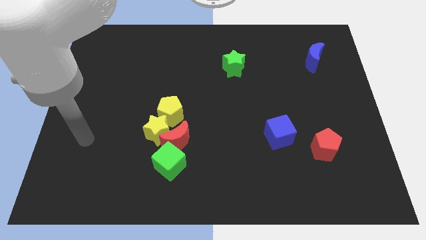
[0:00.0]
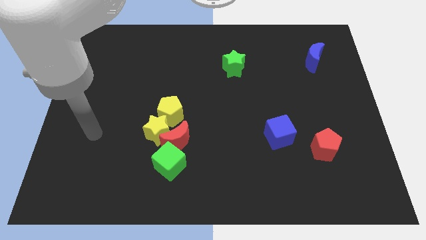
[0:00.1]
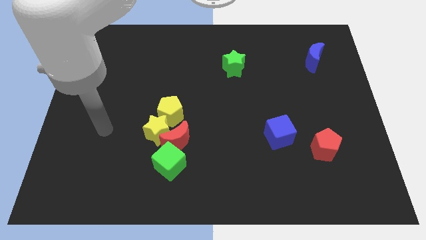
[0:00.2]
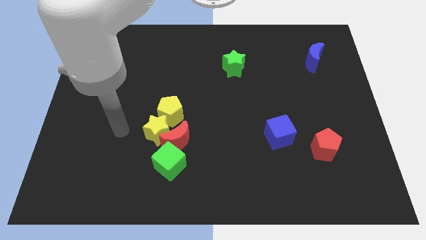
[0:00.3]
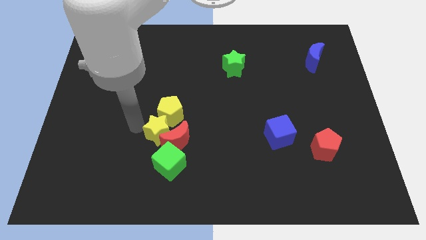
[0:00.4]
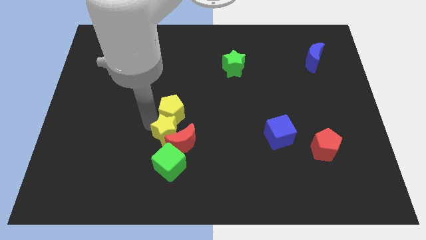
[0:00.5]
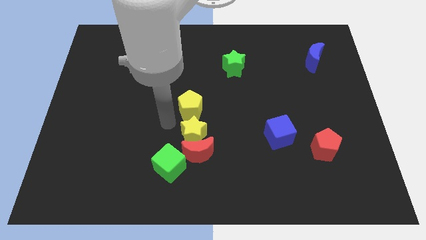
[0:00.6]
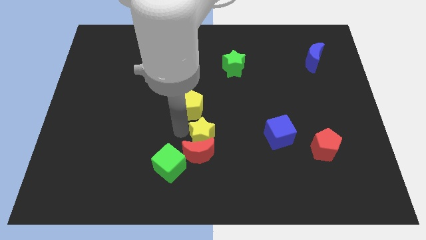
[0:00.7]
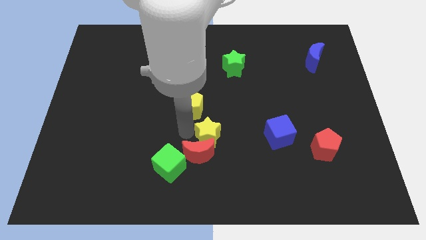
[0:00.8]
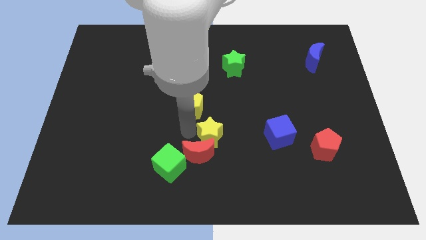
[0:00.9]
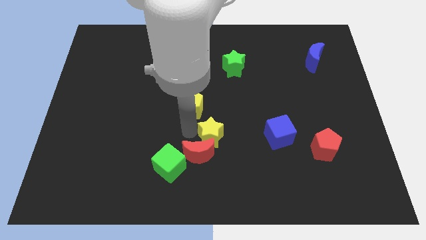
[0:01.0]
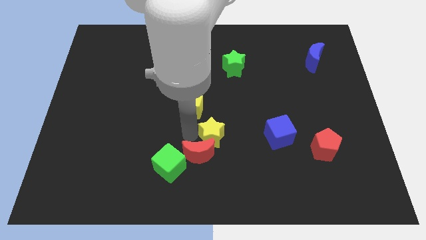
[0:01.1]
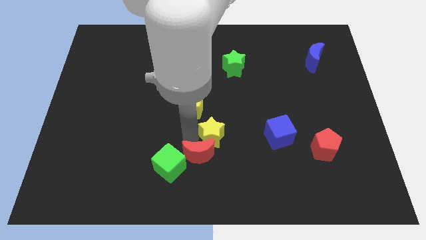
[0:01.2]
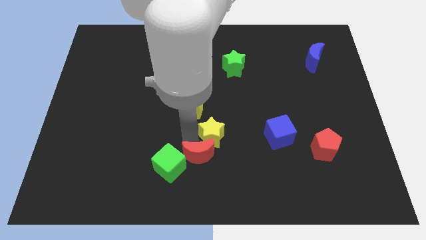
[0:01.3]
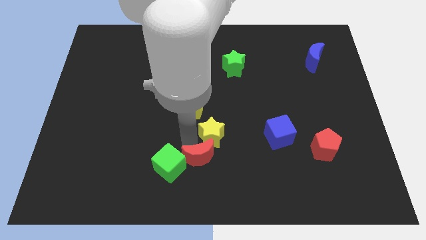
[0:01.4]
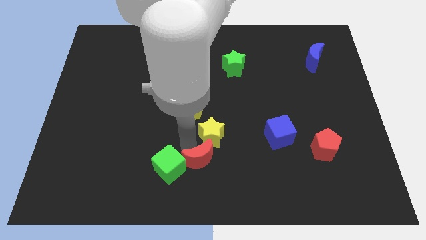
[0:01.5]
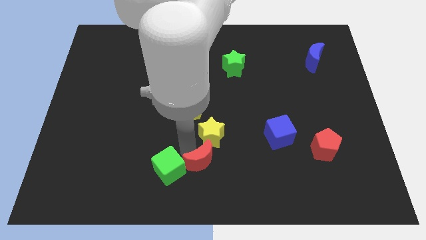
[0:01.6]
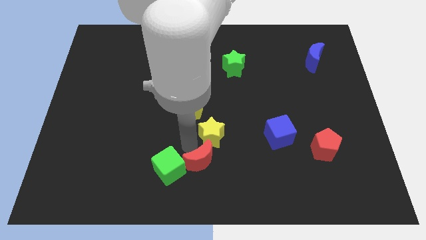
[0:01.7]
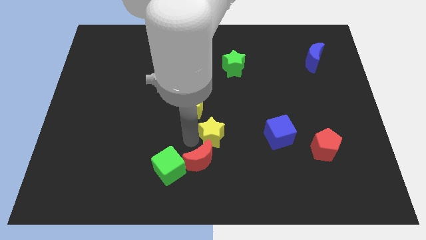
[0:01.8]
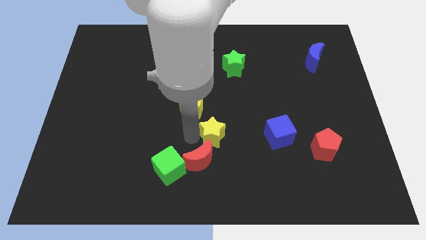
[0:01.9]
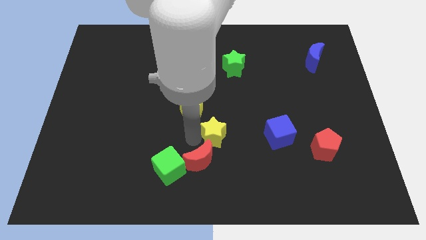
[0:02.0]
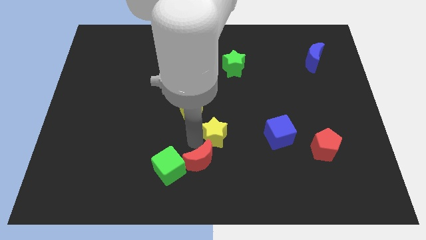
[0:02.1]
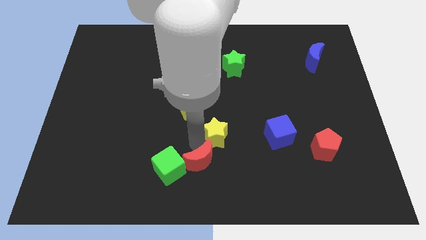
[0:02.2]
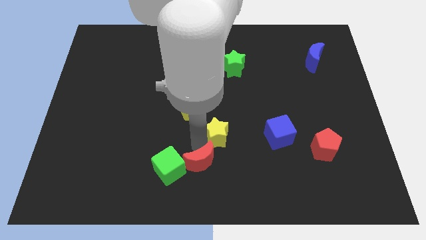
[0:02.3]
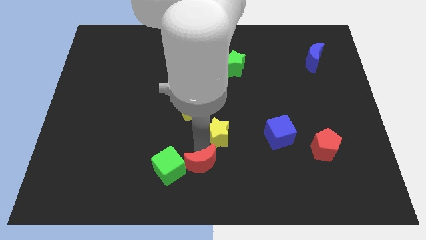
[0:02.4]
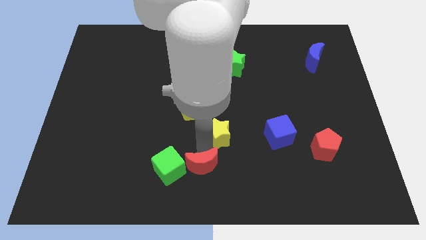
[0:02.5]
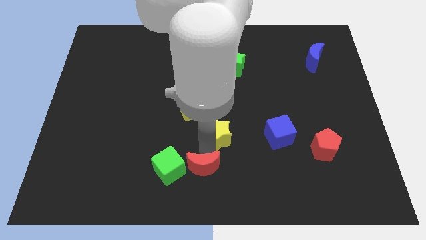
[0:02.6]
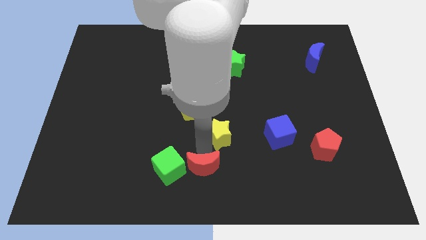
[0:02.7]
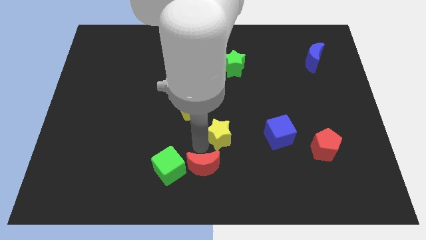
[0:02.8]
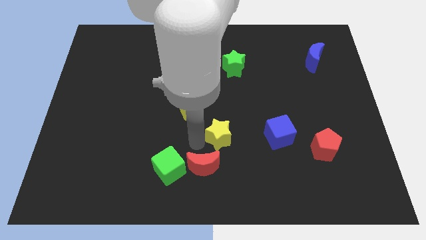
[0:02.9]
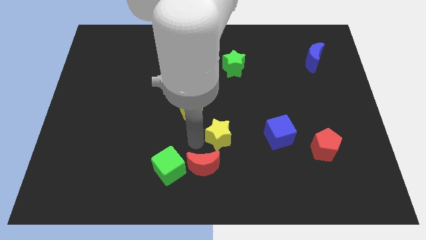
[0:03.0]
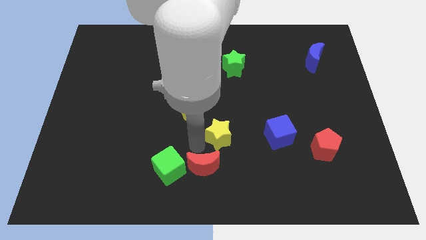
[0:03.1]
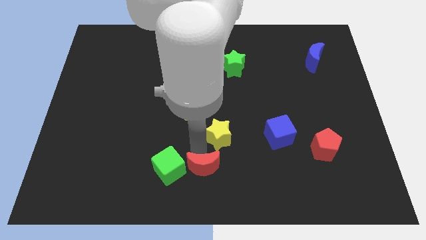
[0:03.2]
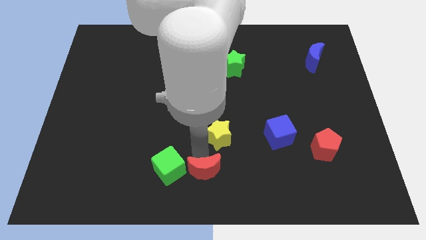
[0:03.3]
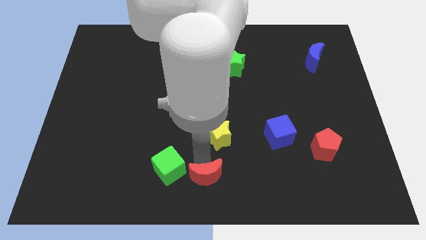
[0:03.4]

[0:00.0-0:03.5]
separate the red moon from the yellow star, green cube, and yellow pentagon

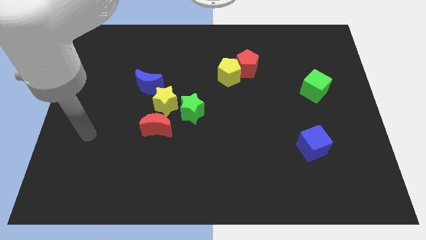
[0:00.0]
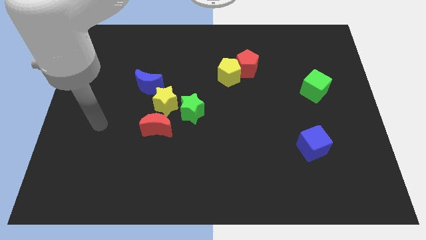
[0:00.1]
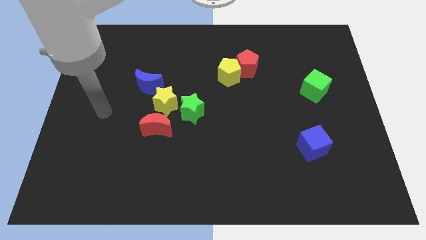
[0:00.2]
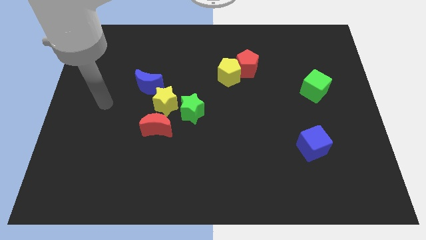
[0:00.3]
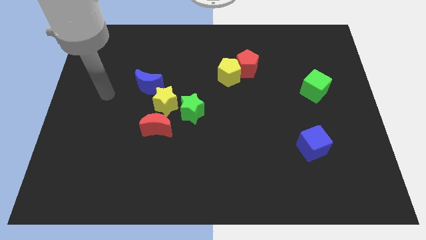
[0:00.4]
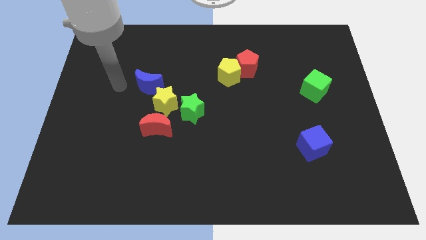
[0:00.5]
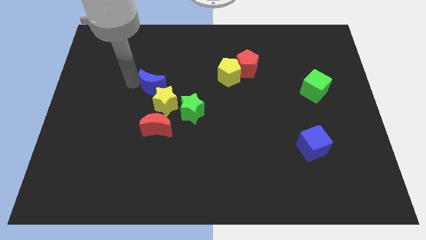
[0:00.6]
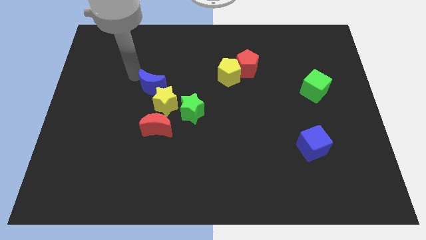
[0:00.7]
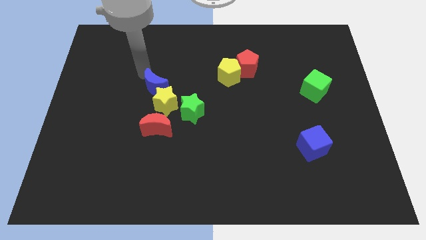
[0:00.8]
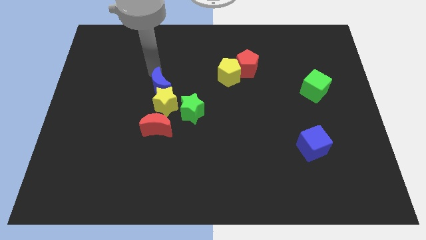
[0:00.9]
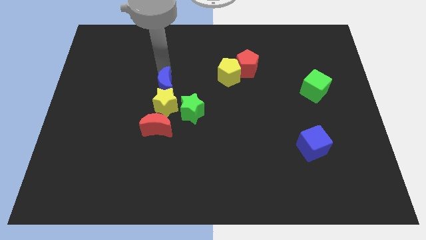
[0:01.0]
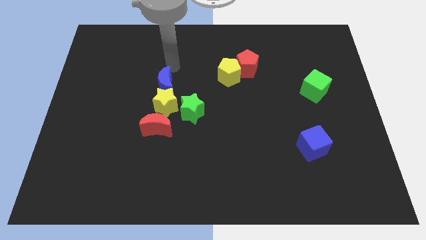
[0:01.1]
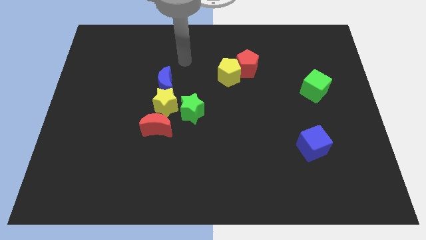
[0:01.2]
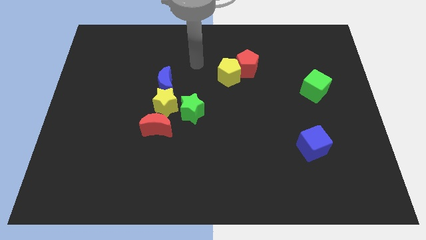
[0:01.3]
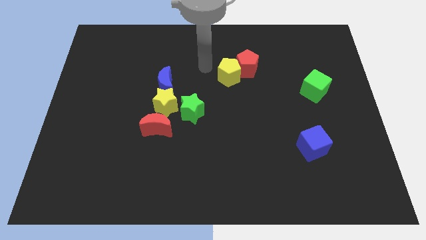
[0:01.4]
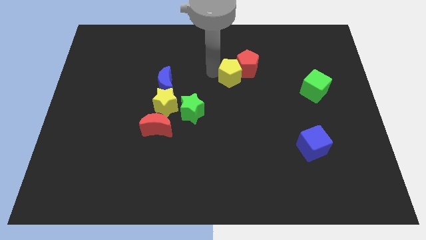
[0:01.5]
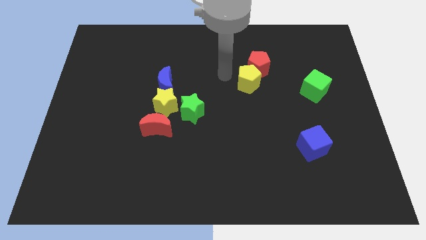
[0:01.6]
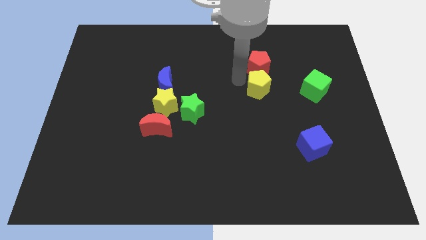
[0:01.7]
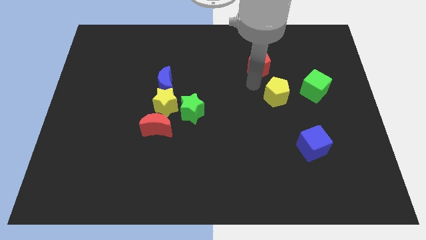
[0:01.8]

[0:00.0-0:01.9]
move the red pentagon away from the yellow pentagon

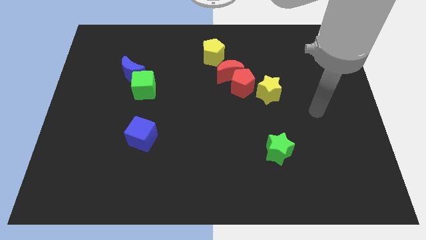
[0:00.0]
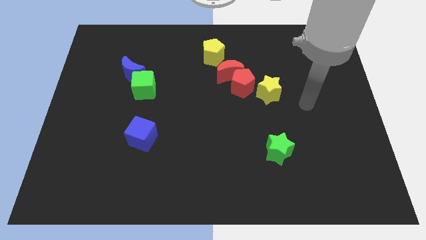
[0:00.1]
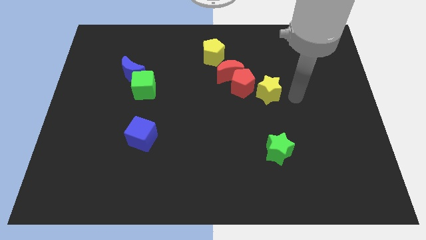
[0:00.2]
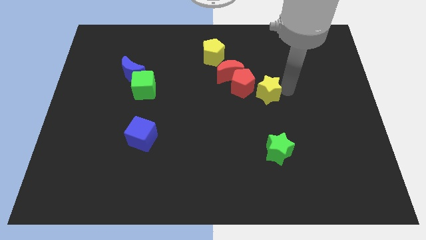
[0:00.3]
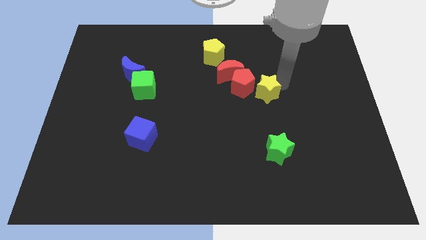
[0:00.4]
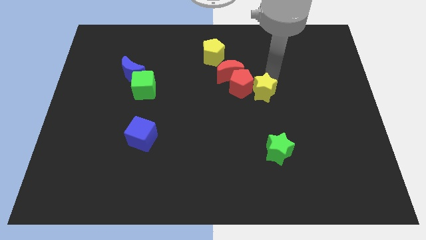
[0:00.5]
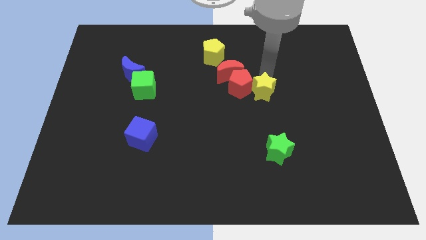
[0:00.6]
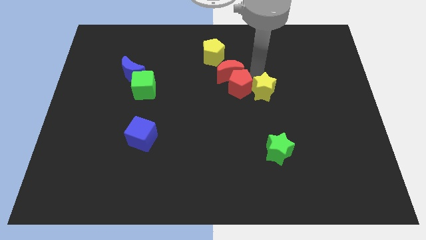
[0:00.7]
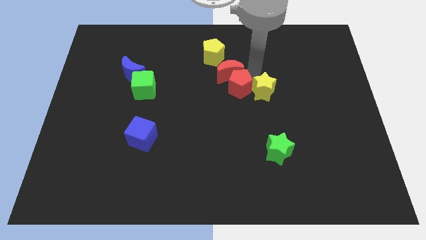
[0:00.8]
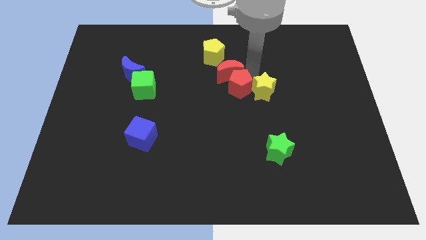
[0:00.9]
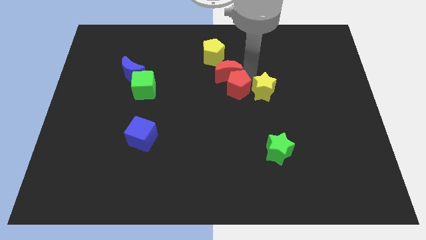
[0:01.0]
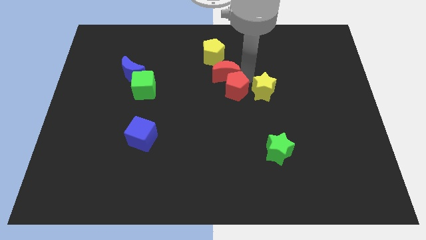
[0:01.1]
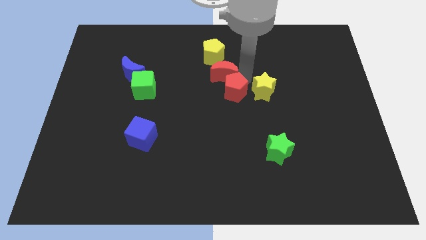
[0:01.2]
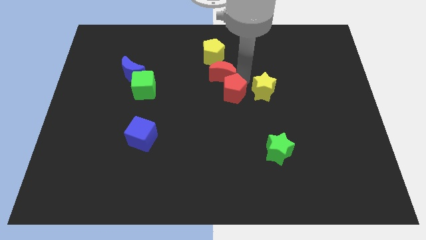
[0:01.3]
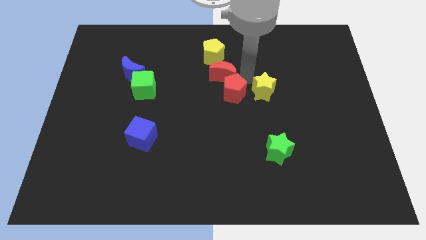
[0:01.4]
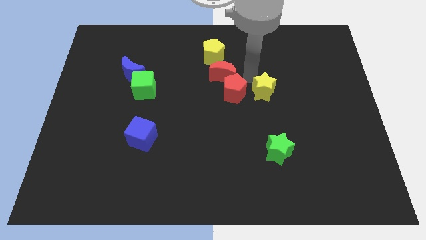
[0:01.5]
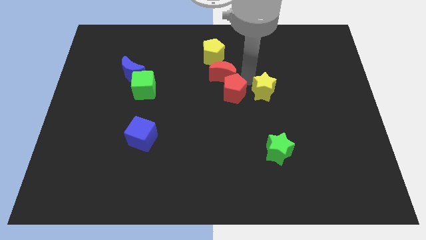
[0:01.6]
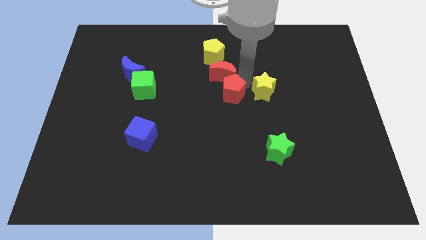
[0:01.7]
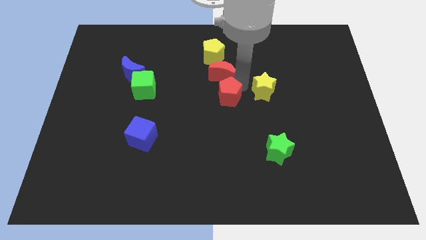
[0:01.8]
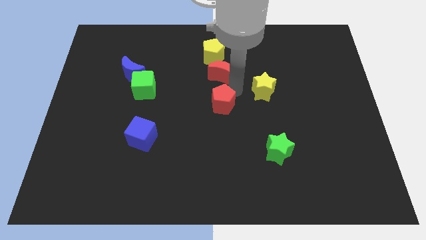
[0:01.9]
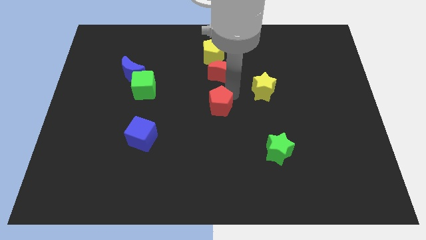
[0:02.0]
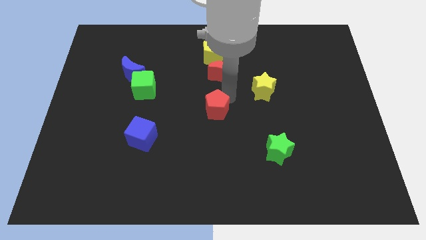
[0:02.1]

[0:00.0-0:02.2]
move the red pentagon away from the red moon and yellow star

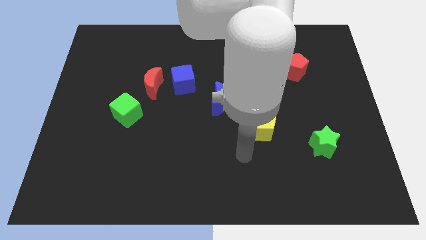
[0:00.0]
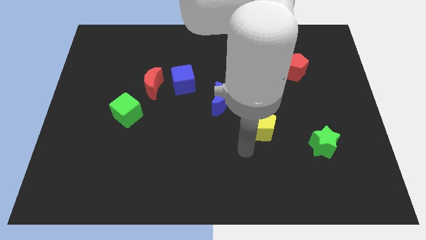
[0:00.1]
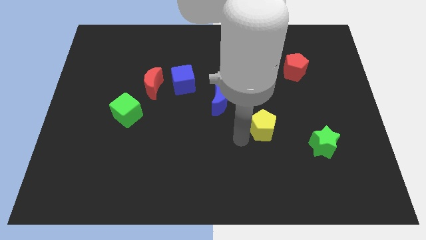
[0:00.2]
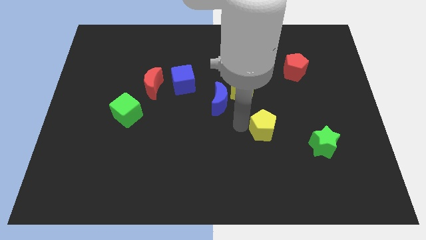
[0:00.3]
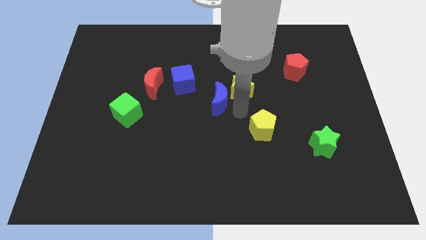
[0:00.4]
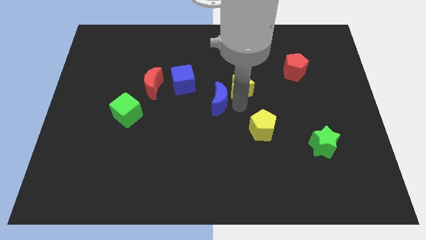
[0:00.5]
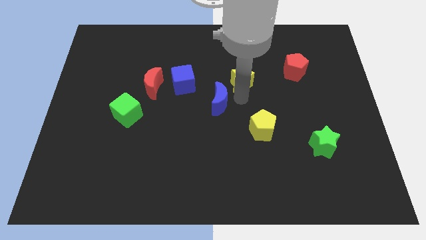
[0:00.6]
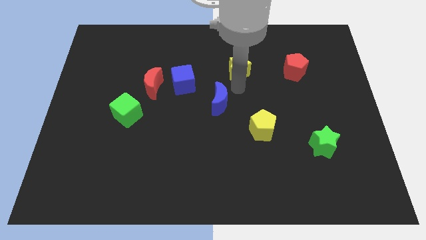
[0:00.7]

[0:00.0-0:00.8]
pull the blue moon apart from the yellow star

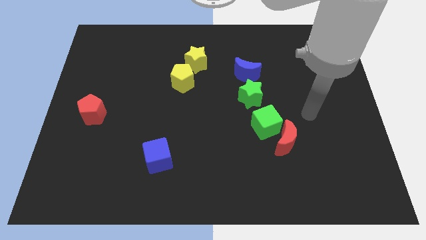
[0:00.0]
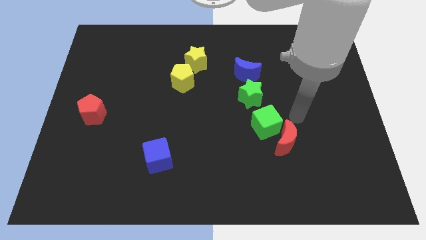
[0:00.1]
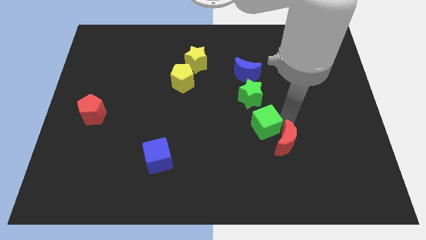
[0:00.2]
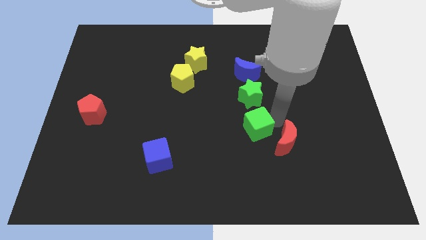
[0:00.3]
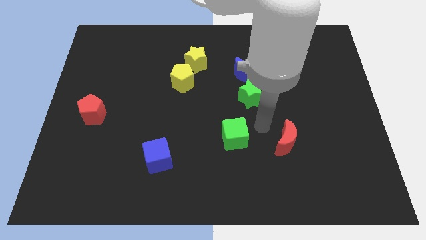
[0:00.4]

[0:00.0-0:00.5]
move the red moon away from the green cube

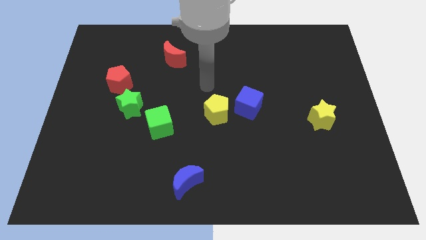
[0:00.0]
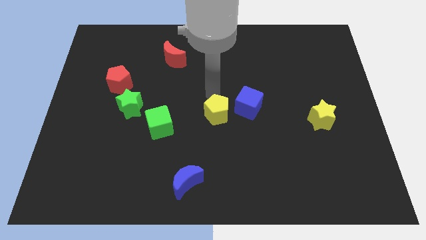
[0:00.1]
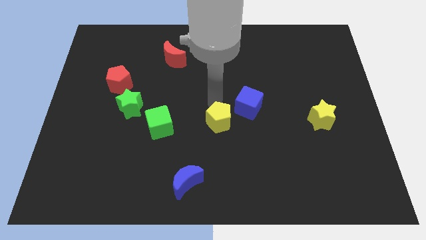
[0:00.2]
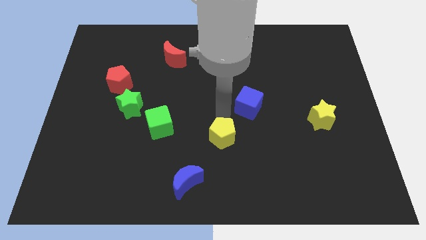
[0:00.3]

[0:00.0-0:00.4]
pull the blue cube apart from the yellow pentagon
